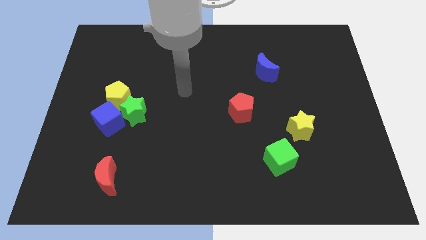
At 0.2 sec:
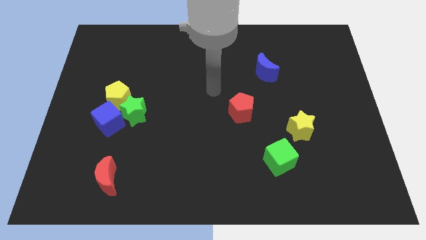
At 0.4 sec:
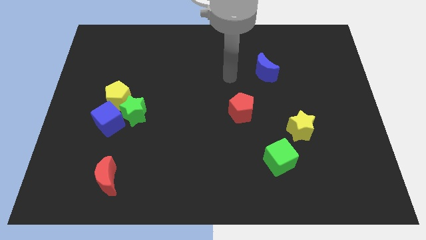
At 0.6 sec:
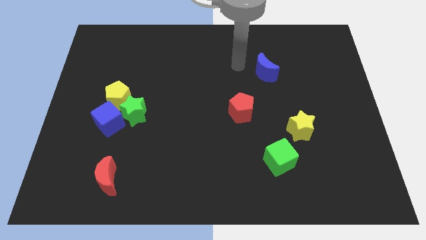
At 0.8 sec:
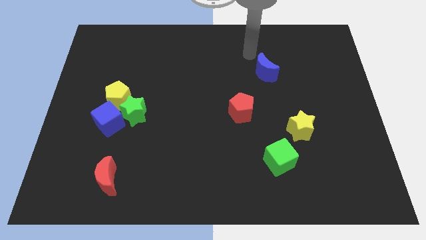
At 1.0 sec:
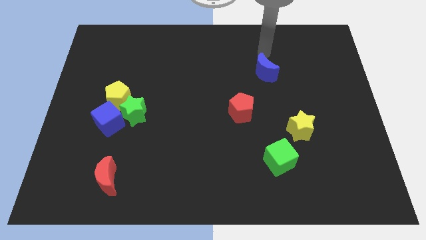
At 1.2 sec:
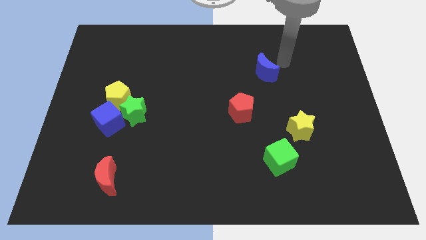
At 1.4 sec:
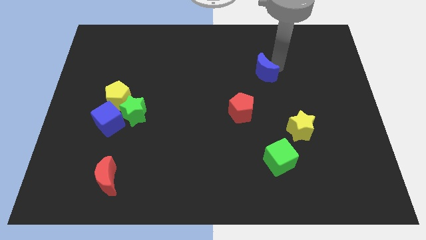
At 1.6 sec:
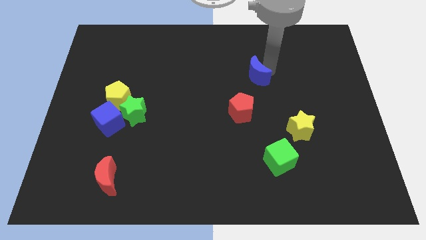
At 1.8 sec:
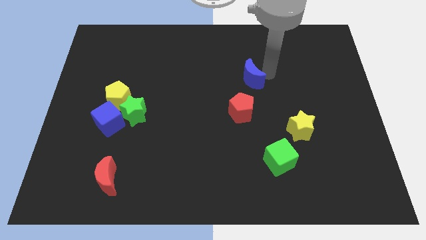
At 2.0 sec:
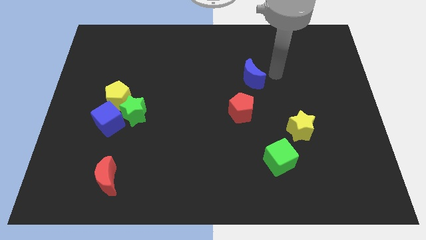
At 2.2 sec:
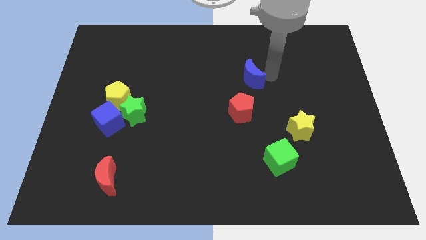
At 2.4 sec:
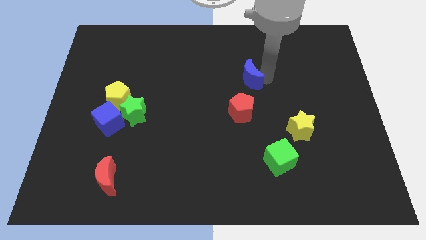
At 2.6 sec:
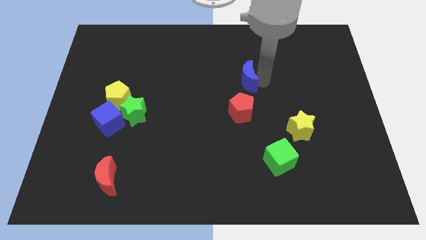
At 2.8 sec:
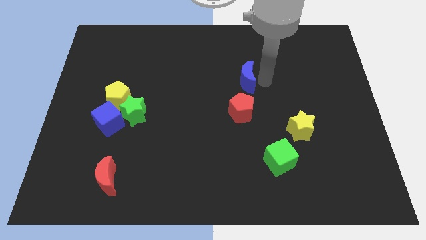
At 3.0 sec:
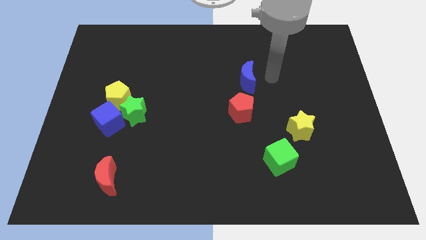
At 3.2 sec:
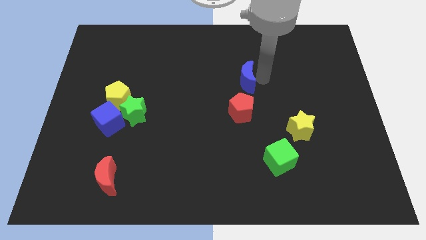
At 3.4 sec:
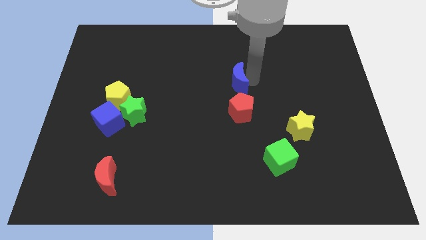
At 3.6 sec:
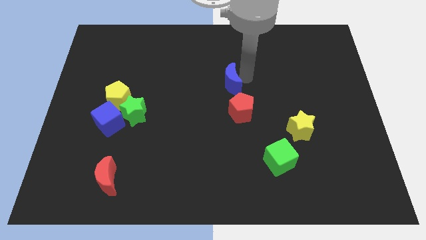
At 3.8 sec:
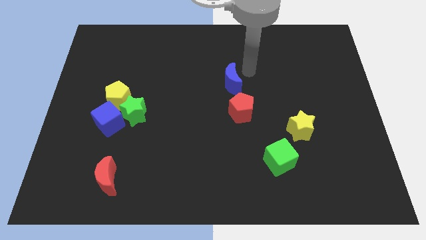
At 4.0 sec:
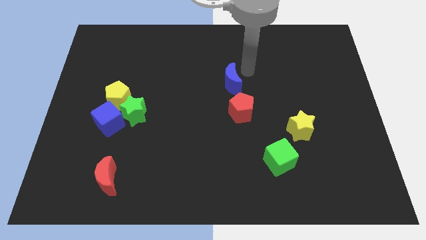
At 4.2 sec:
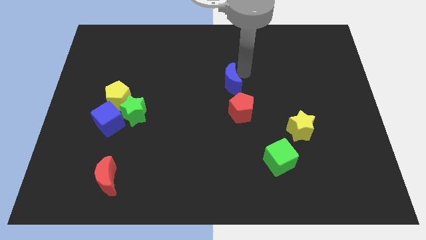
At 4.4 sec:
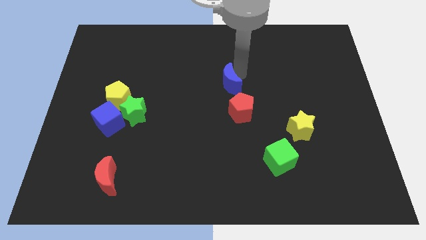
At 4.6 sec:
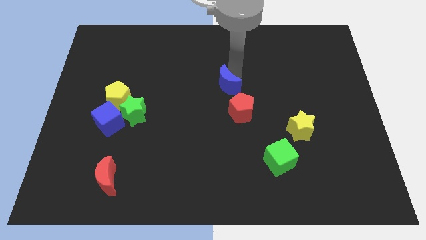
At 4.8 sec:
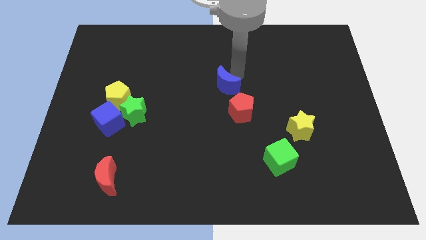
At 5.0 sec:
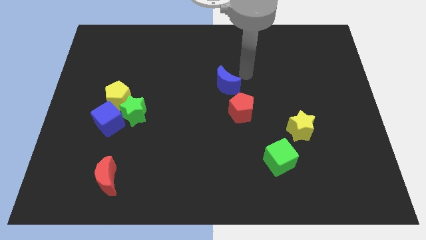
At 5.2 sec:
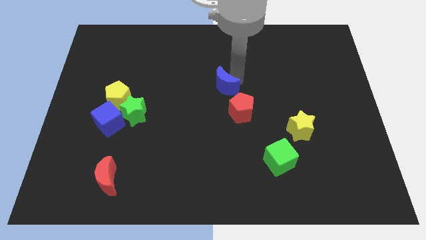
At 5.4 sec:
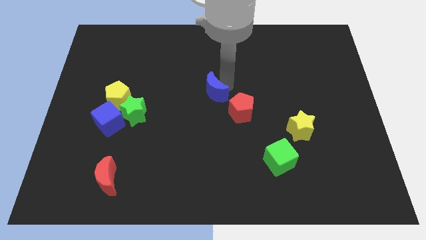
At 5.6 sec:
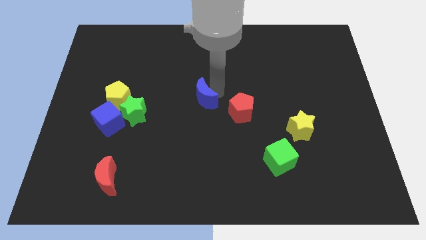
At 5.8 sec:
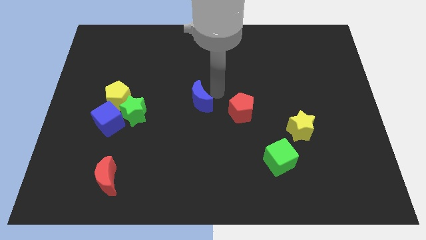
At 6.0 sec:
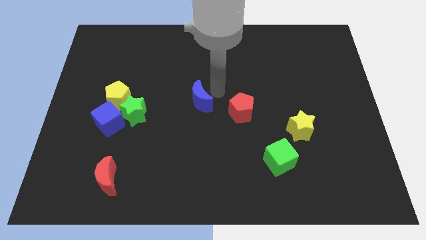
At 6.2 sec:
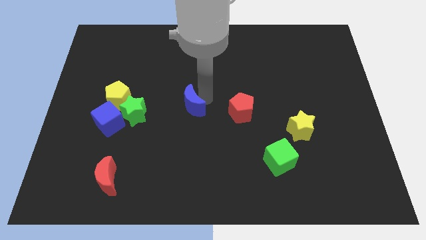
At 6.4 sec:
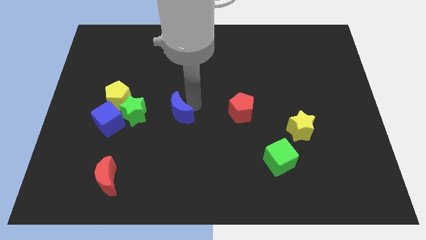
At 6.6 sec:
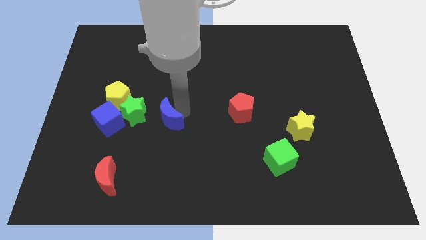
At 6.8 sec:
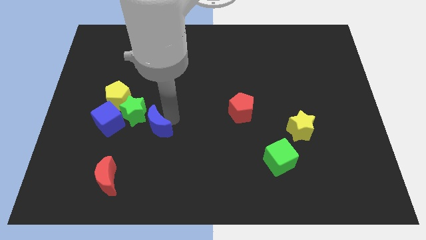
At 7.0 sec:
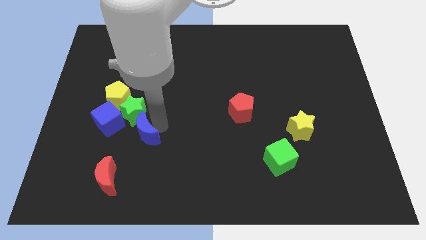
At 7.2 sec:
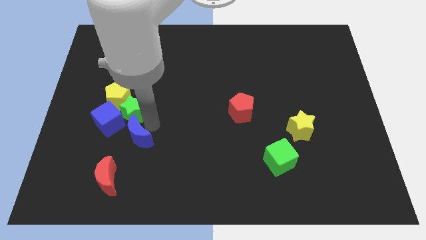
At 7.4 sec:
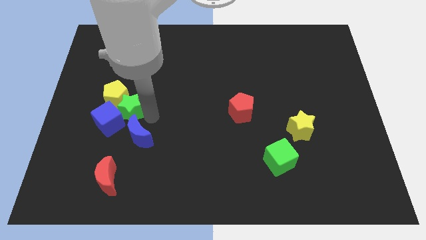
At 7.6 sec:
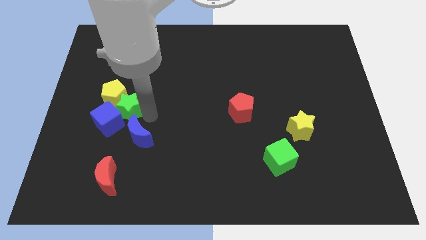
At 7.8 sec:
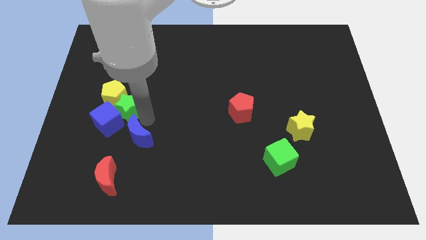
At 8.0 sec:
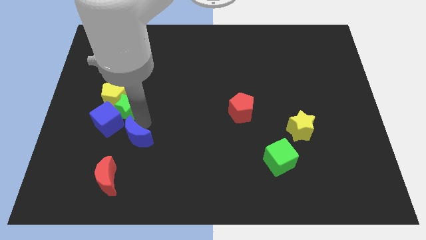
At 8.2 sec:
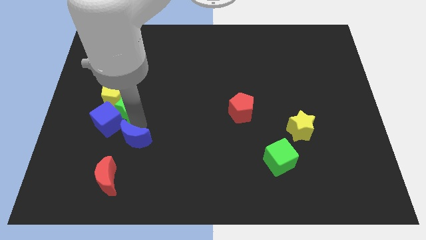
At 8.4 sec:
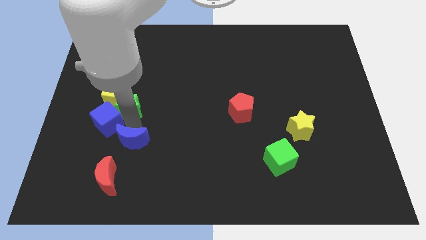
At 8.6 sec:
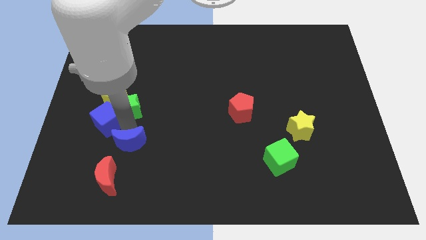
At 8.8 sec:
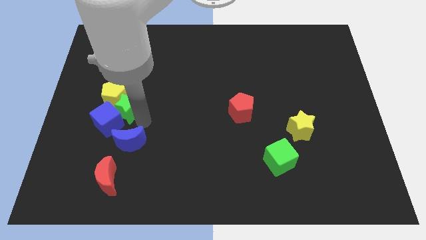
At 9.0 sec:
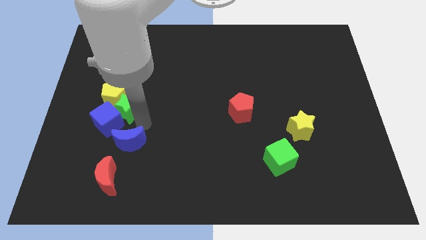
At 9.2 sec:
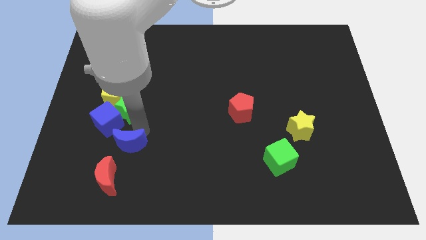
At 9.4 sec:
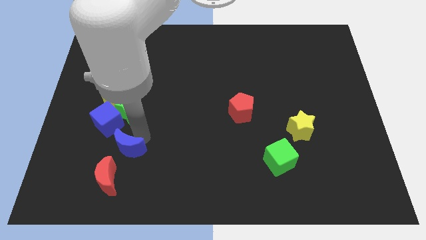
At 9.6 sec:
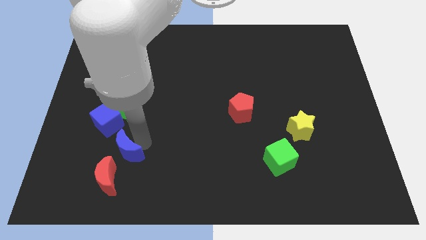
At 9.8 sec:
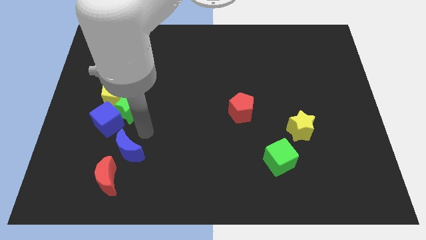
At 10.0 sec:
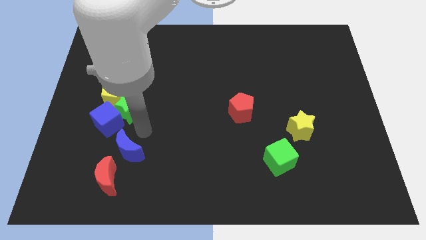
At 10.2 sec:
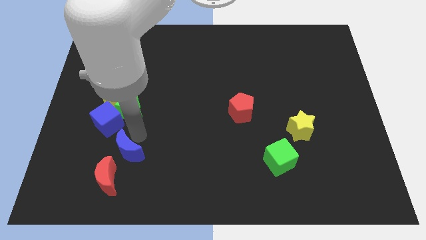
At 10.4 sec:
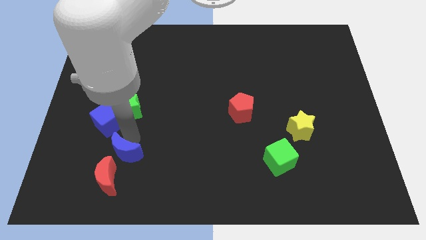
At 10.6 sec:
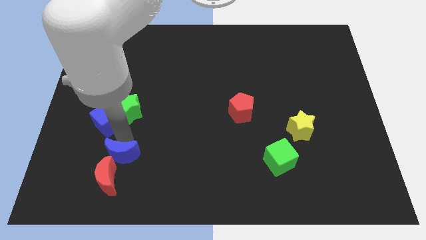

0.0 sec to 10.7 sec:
slide the blue moon towards the red moon

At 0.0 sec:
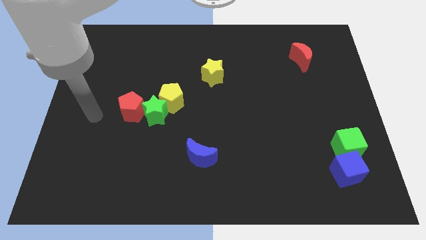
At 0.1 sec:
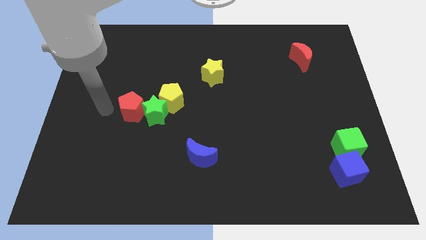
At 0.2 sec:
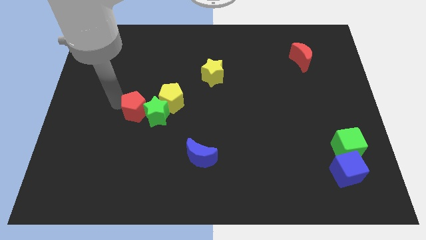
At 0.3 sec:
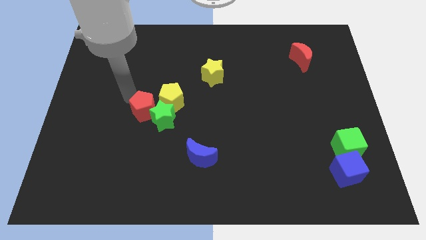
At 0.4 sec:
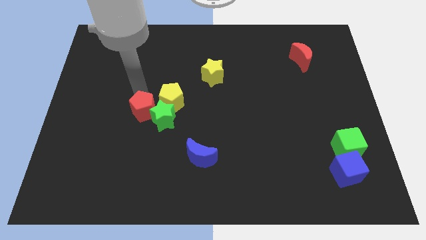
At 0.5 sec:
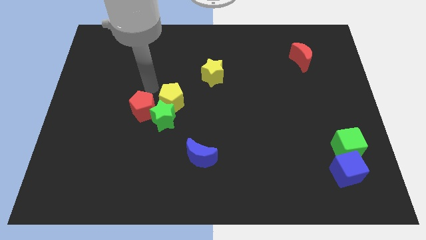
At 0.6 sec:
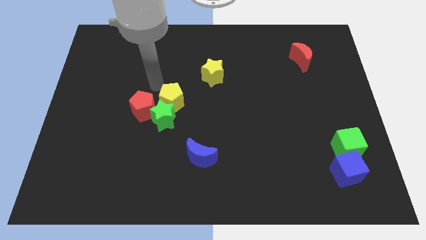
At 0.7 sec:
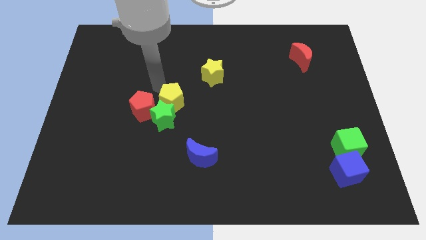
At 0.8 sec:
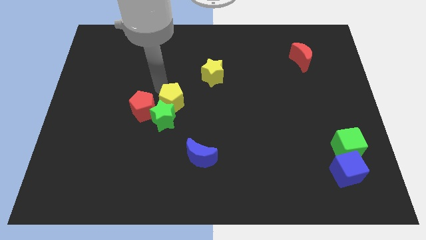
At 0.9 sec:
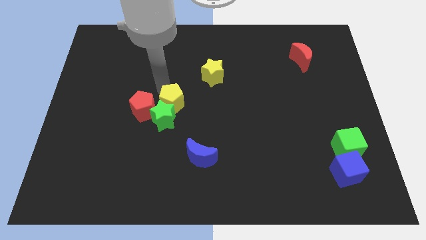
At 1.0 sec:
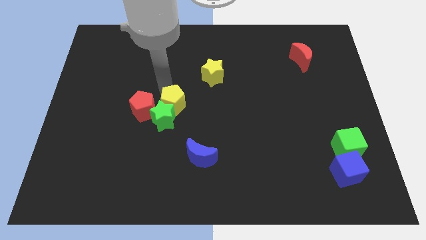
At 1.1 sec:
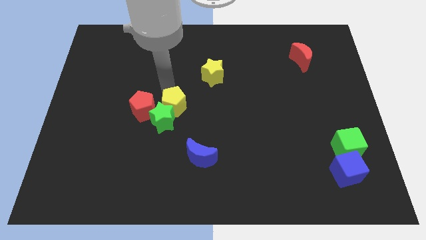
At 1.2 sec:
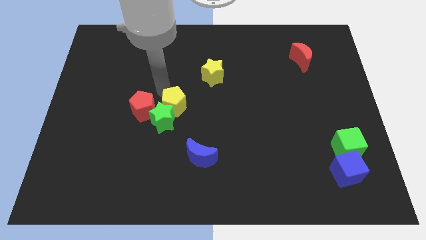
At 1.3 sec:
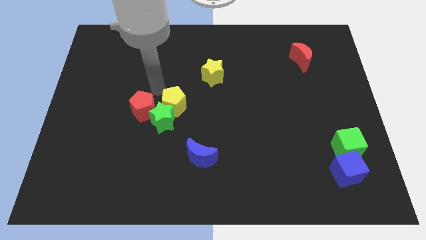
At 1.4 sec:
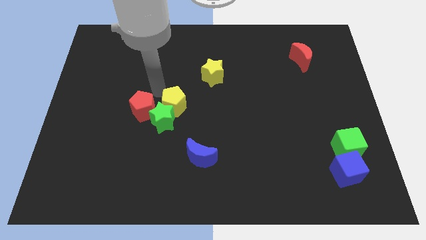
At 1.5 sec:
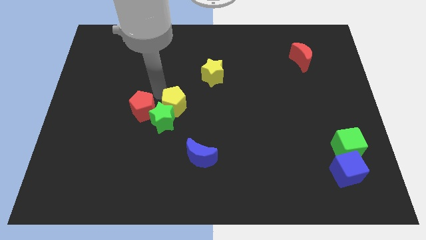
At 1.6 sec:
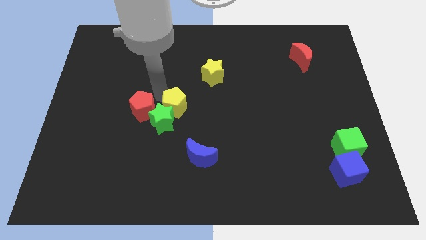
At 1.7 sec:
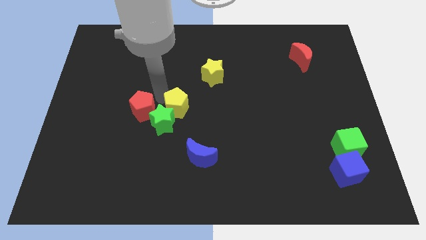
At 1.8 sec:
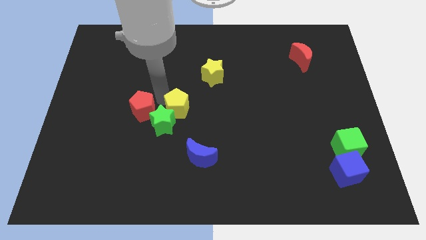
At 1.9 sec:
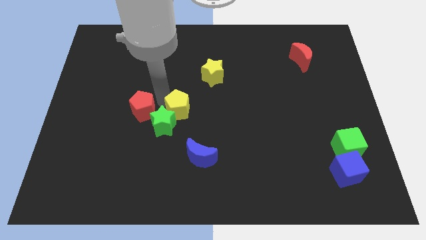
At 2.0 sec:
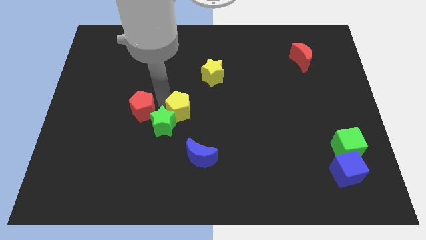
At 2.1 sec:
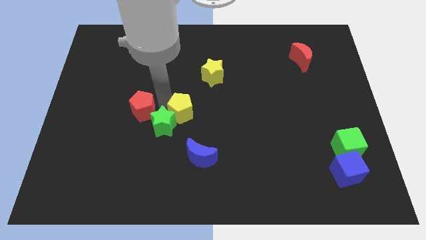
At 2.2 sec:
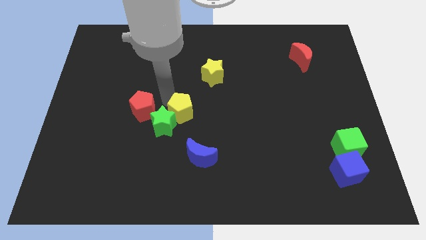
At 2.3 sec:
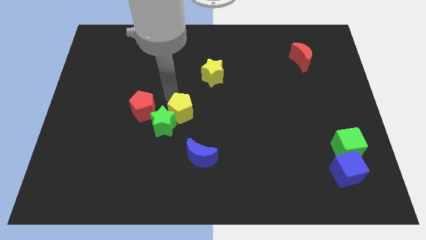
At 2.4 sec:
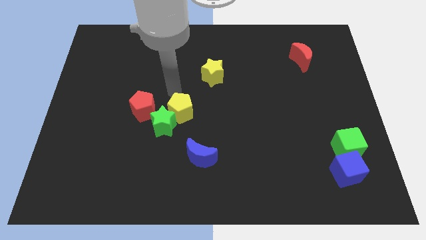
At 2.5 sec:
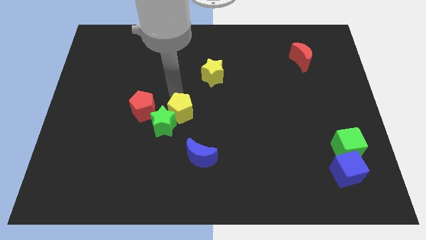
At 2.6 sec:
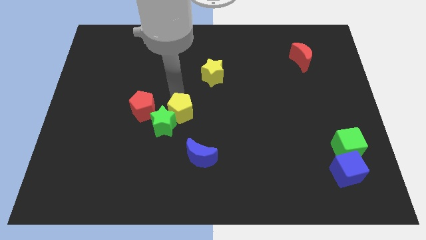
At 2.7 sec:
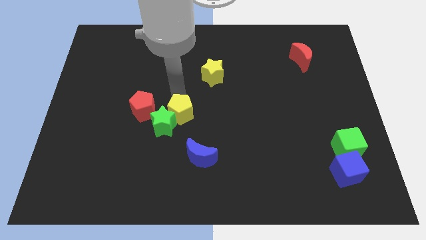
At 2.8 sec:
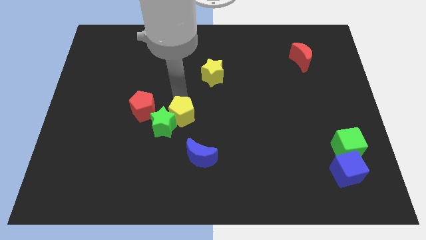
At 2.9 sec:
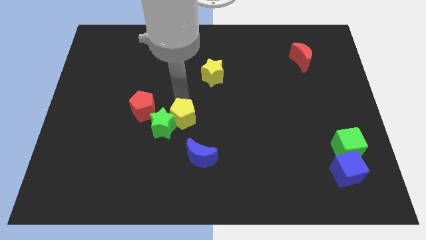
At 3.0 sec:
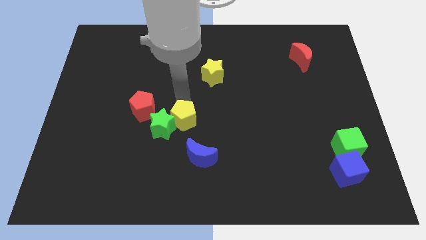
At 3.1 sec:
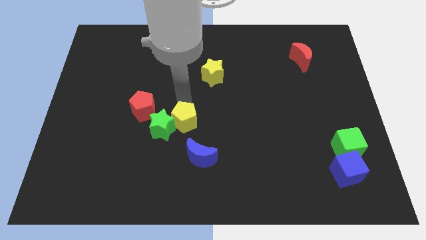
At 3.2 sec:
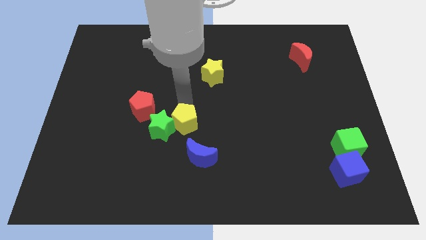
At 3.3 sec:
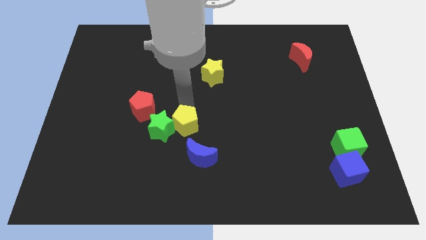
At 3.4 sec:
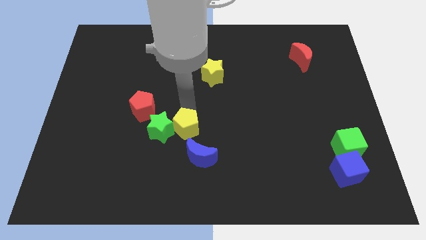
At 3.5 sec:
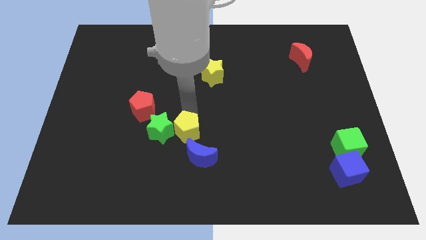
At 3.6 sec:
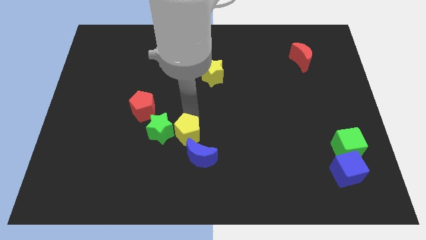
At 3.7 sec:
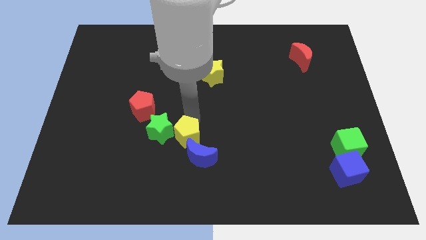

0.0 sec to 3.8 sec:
push the yellow pentagon close to the blue moon
